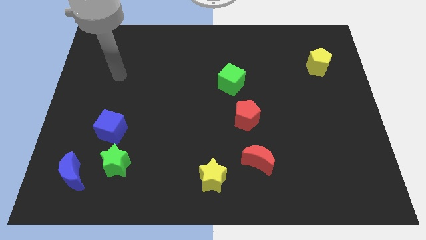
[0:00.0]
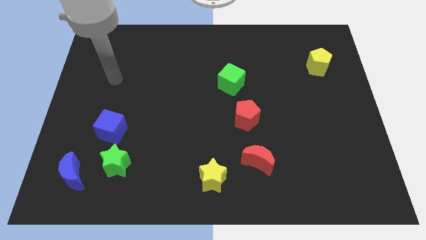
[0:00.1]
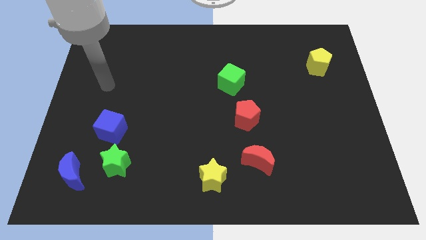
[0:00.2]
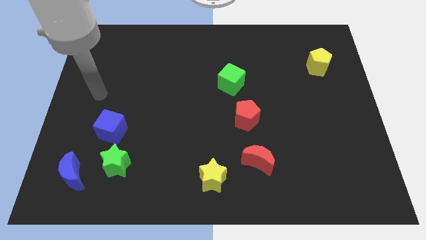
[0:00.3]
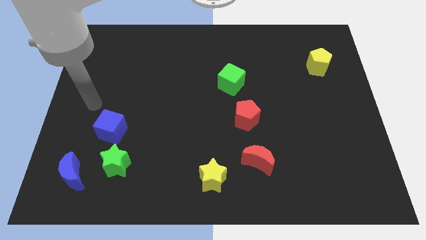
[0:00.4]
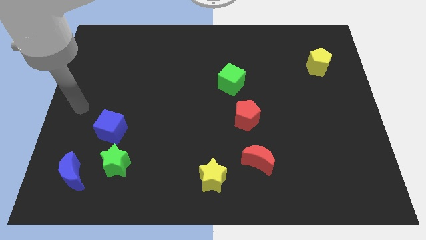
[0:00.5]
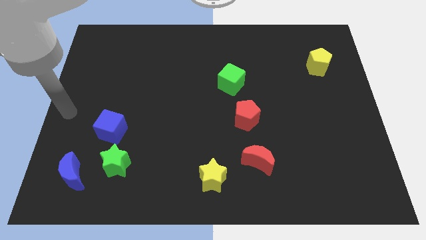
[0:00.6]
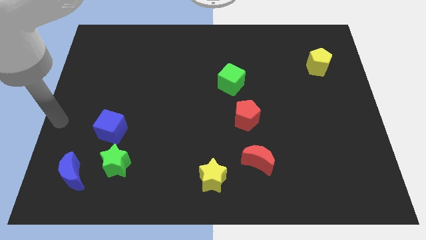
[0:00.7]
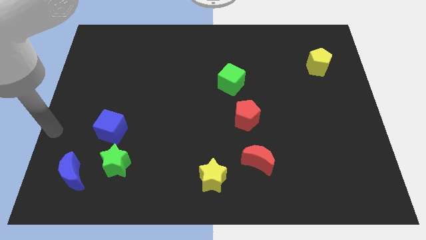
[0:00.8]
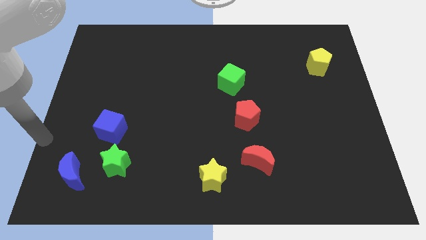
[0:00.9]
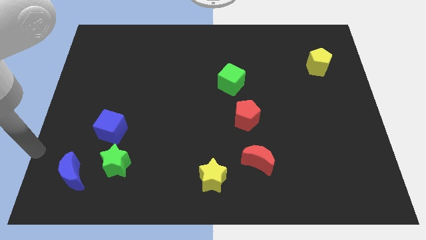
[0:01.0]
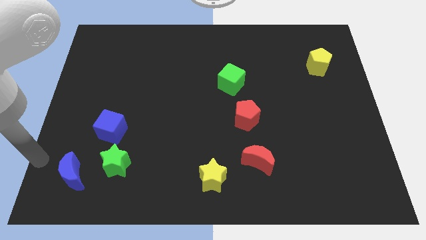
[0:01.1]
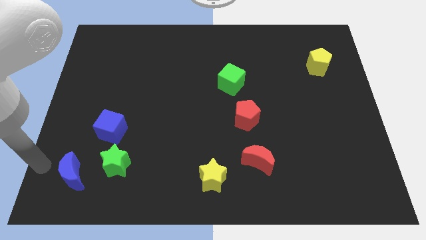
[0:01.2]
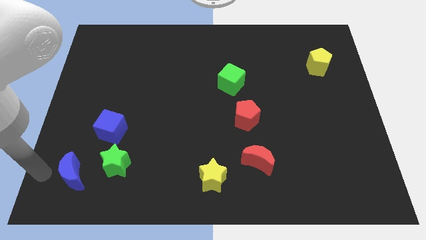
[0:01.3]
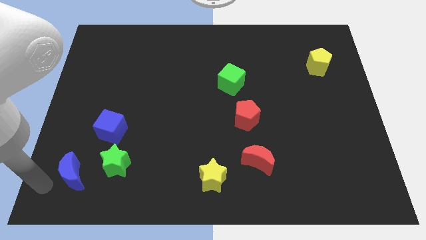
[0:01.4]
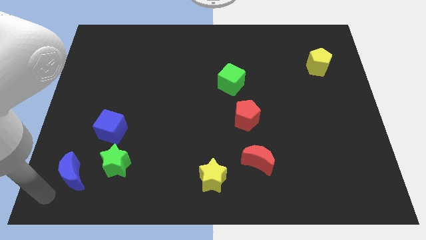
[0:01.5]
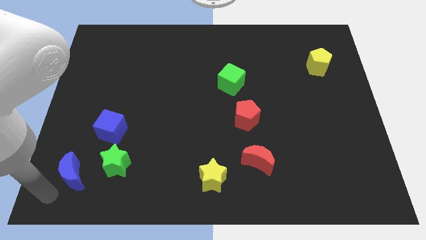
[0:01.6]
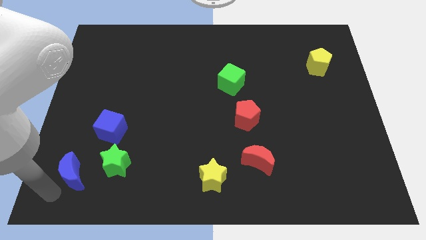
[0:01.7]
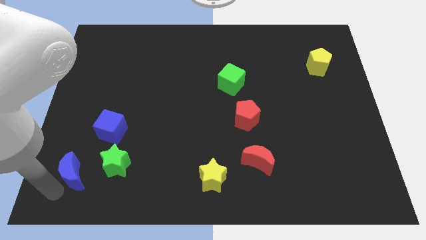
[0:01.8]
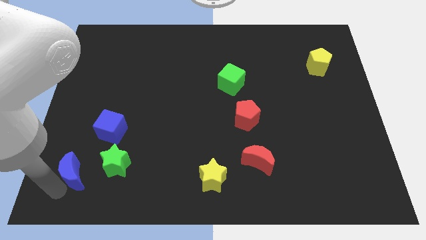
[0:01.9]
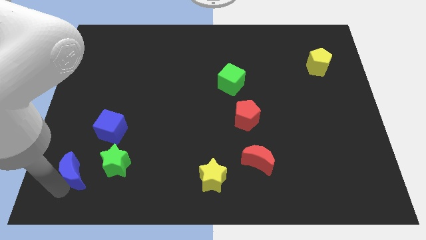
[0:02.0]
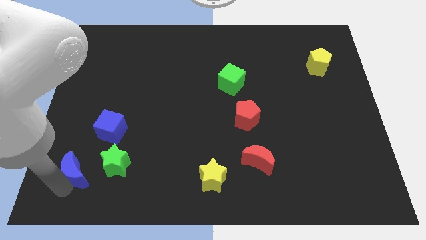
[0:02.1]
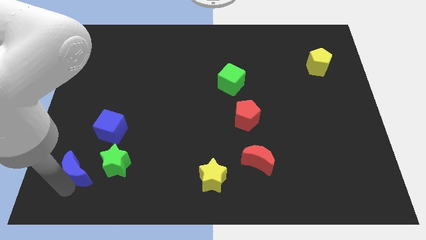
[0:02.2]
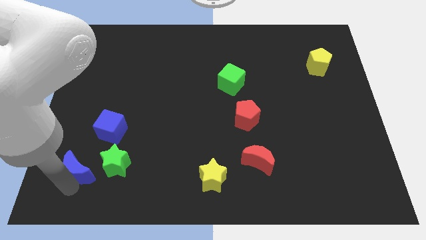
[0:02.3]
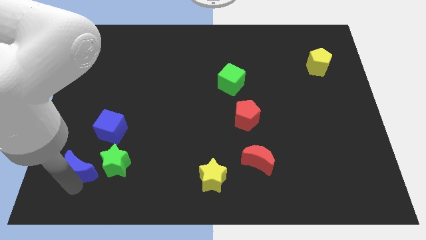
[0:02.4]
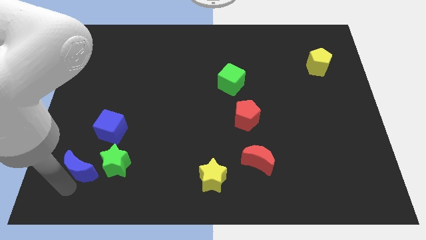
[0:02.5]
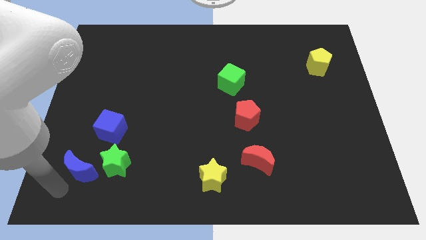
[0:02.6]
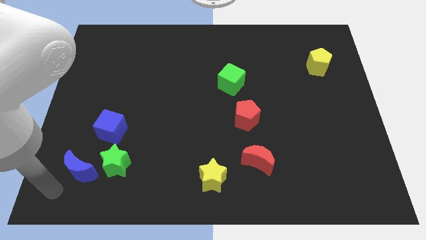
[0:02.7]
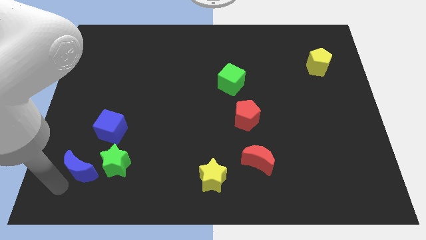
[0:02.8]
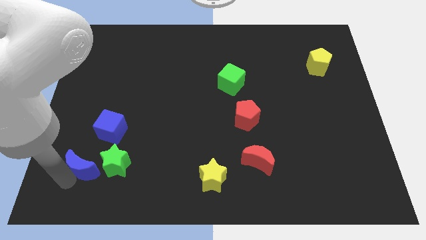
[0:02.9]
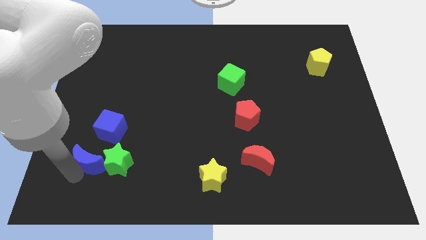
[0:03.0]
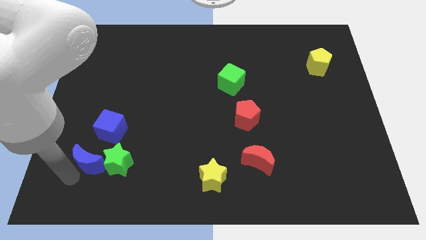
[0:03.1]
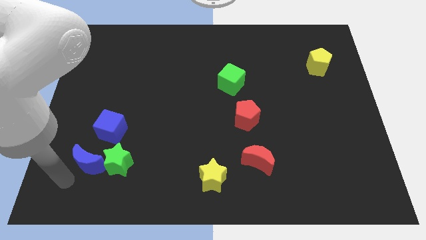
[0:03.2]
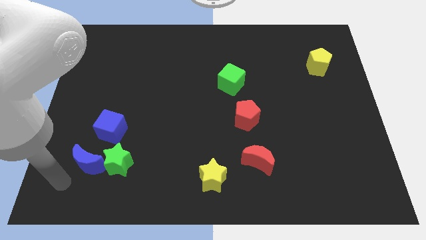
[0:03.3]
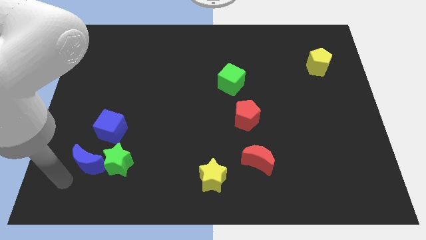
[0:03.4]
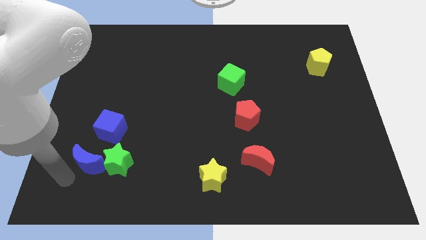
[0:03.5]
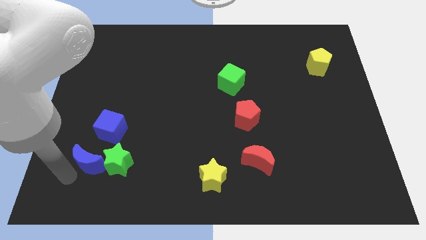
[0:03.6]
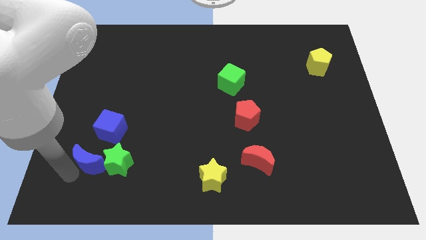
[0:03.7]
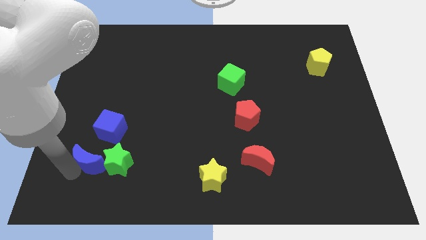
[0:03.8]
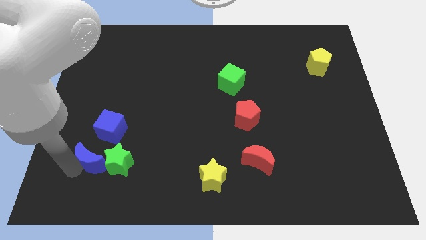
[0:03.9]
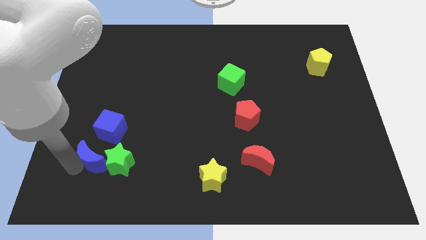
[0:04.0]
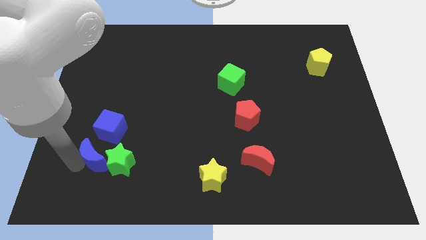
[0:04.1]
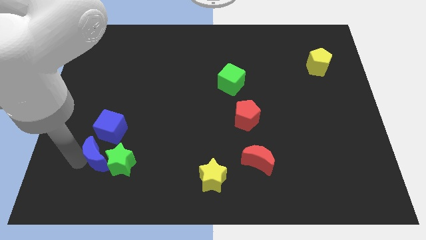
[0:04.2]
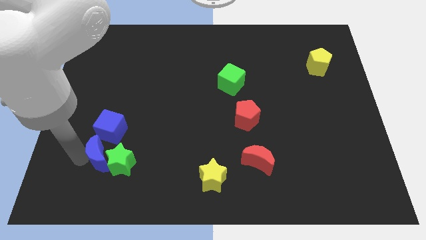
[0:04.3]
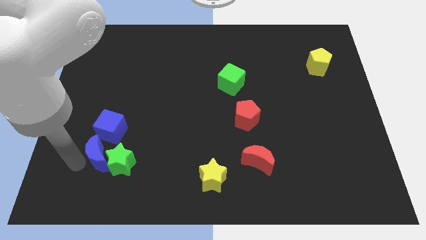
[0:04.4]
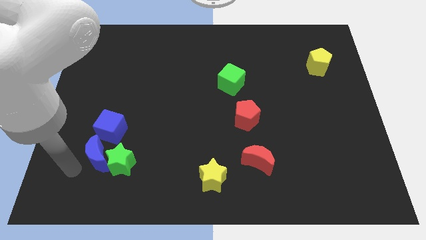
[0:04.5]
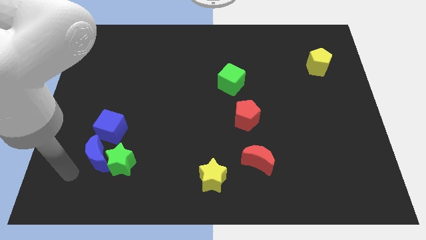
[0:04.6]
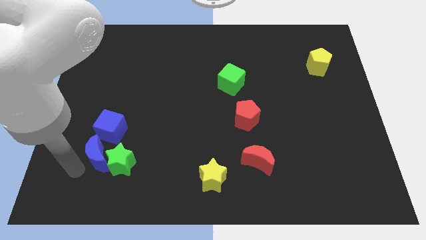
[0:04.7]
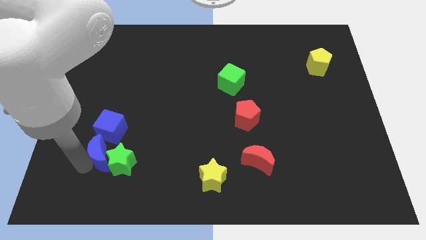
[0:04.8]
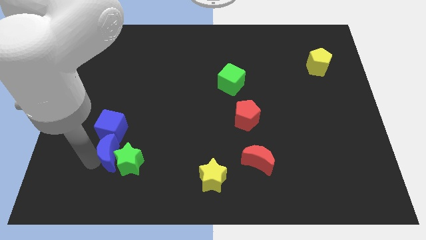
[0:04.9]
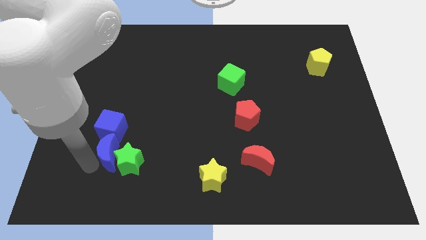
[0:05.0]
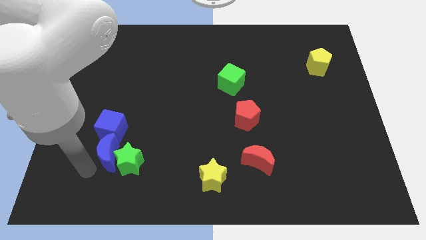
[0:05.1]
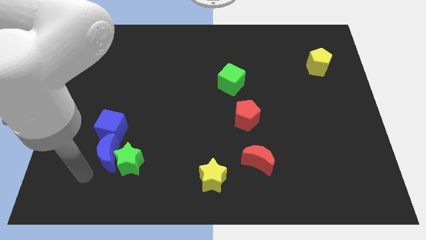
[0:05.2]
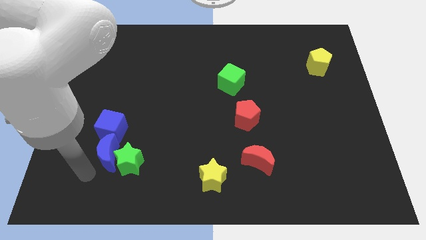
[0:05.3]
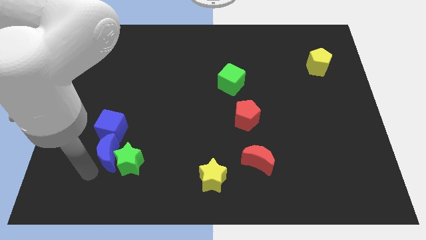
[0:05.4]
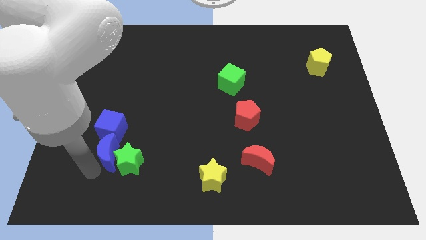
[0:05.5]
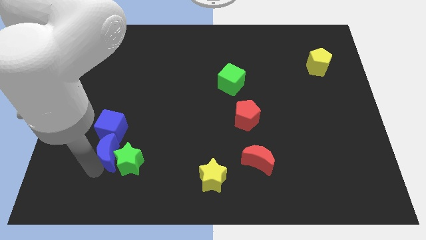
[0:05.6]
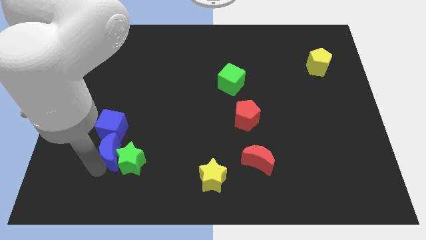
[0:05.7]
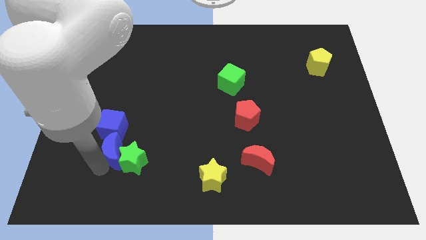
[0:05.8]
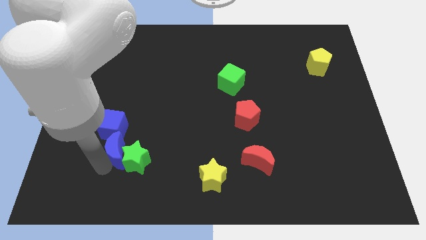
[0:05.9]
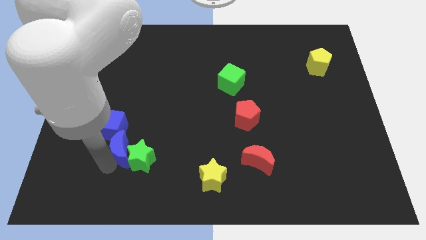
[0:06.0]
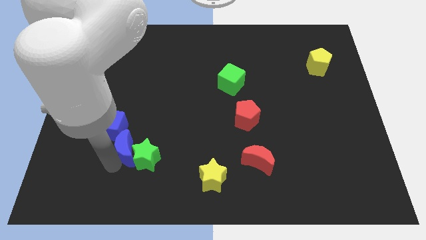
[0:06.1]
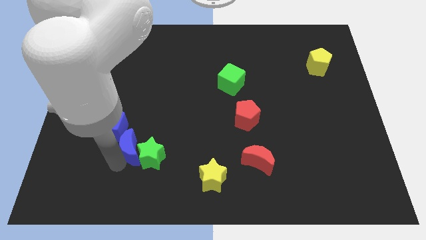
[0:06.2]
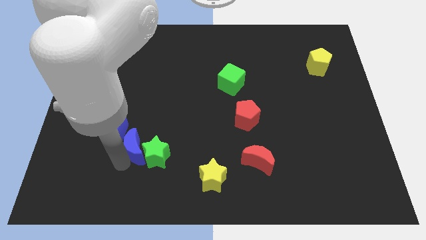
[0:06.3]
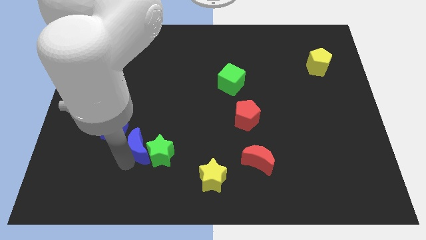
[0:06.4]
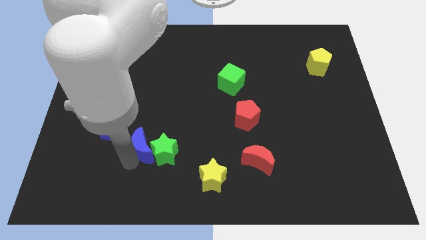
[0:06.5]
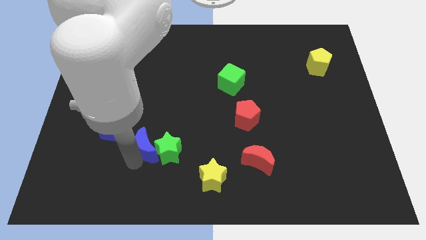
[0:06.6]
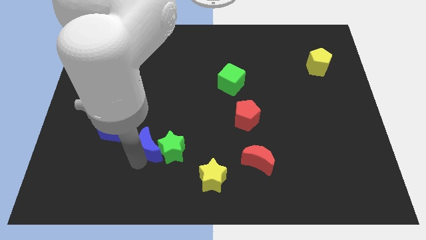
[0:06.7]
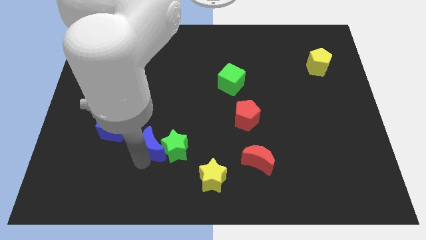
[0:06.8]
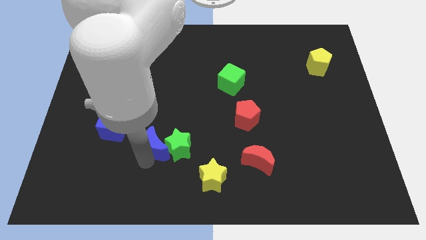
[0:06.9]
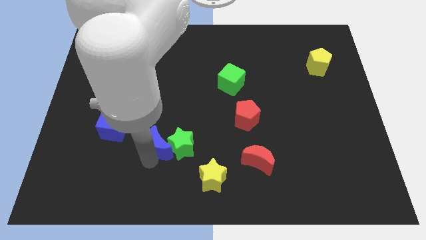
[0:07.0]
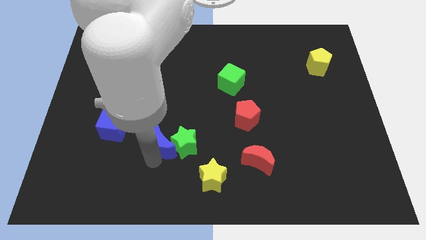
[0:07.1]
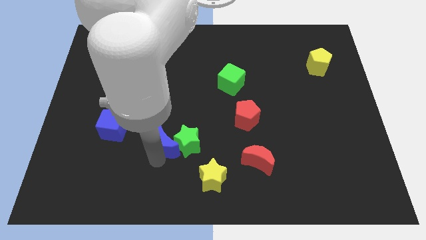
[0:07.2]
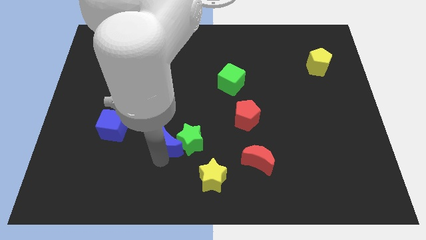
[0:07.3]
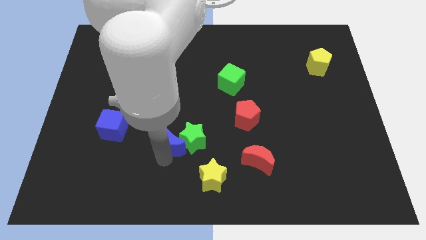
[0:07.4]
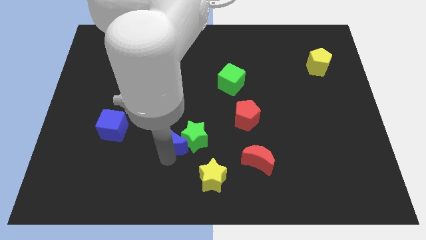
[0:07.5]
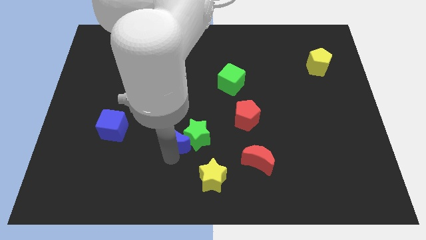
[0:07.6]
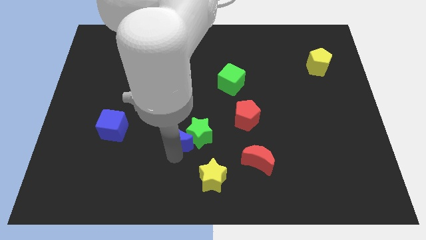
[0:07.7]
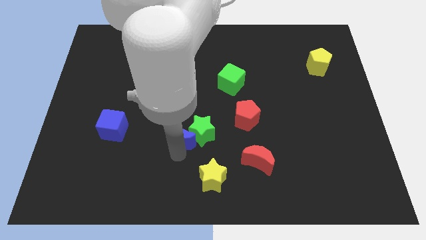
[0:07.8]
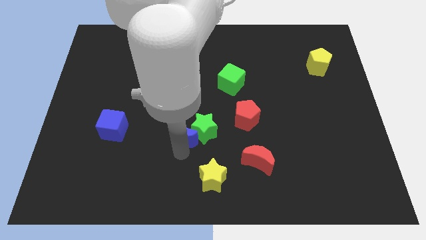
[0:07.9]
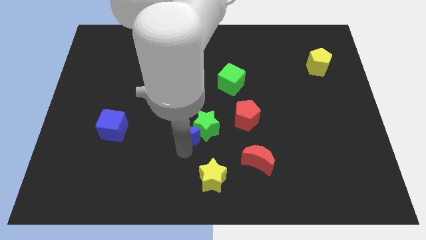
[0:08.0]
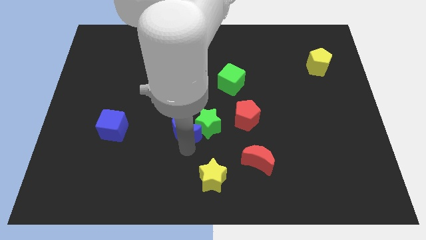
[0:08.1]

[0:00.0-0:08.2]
push the blue moon up and then to the right
